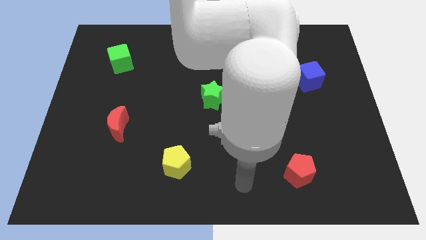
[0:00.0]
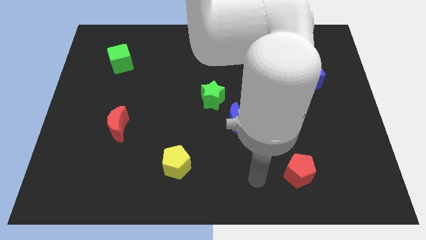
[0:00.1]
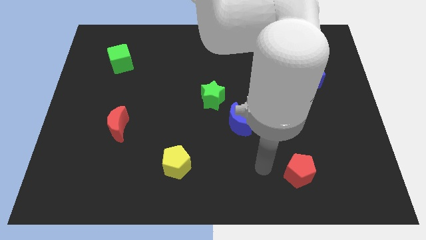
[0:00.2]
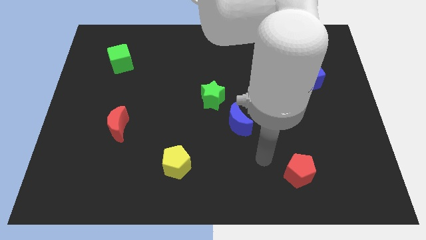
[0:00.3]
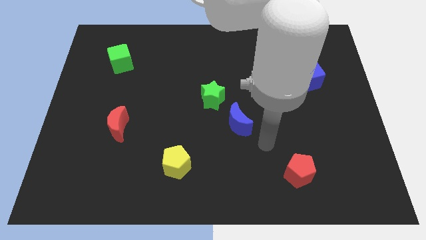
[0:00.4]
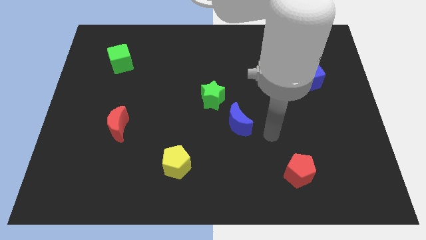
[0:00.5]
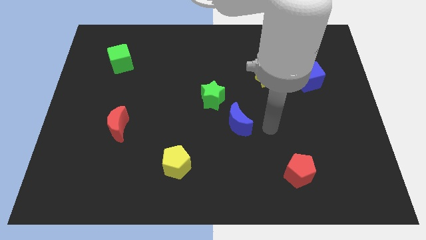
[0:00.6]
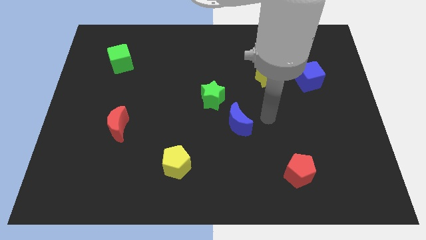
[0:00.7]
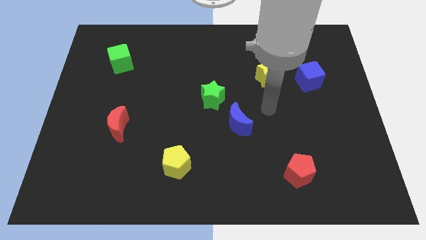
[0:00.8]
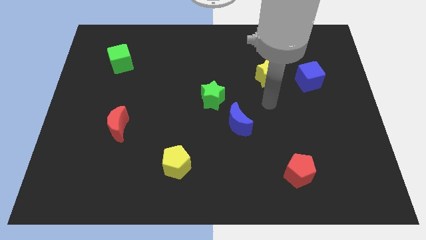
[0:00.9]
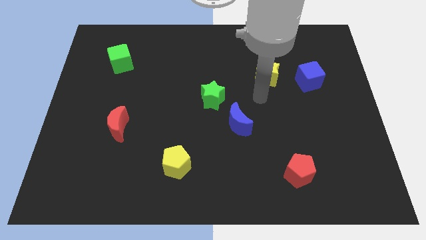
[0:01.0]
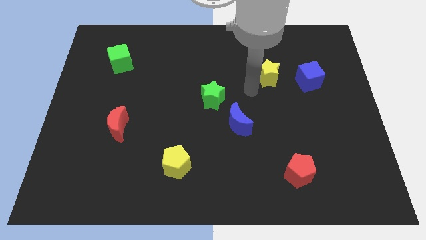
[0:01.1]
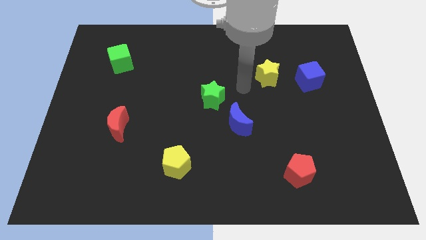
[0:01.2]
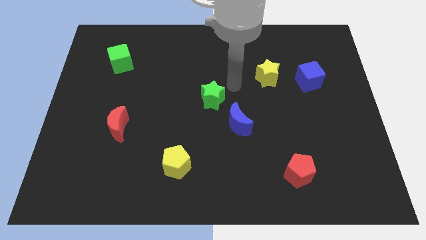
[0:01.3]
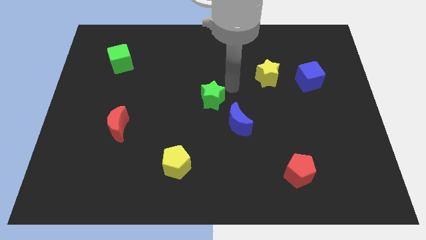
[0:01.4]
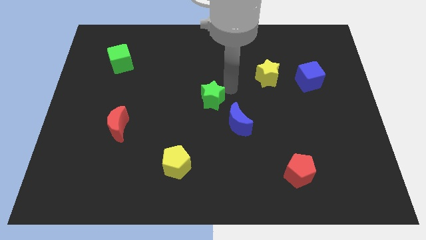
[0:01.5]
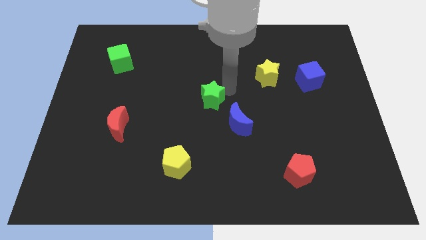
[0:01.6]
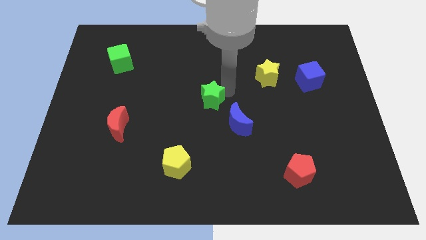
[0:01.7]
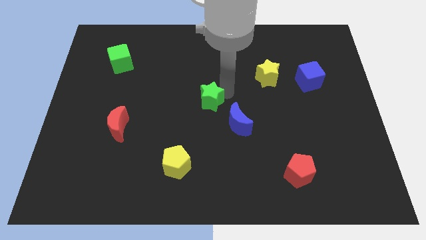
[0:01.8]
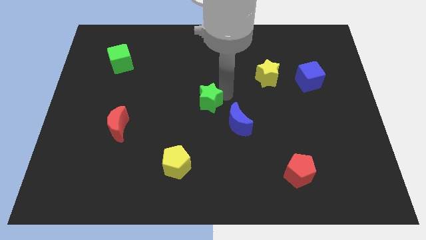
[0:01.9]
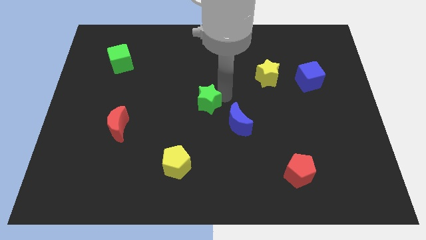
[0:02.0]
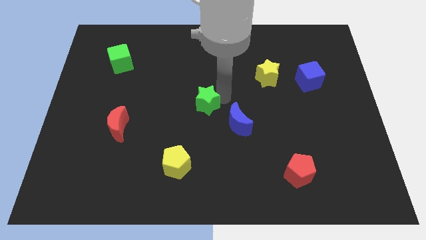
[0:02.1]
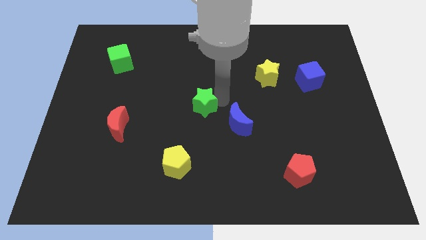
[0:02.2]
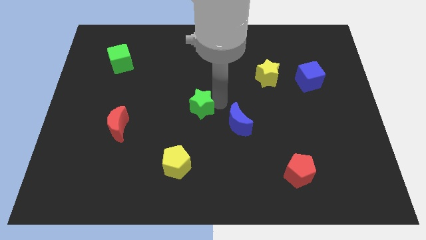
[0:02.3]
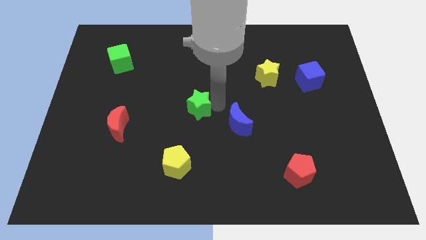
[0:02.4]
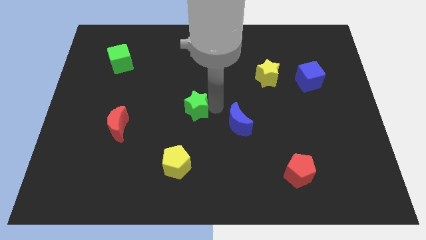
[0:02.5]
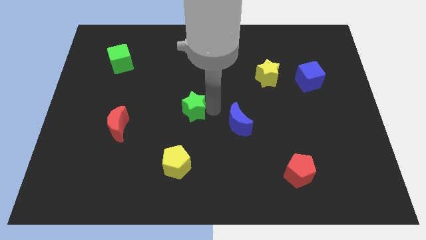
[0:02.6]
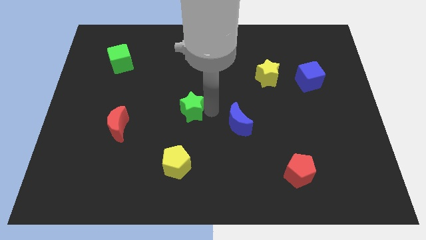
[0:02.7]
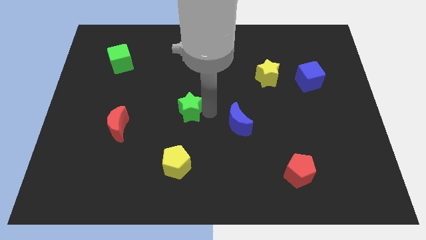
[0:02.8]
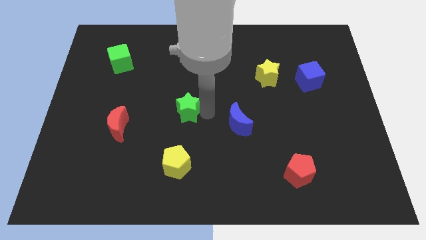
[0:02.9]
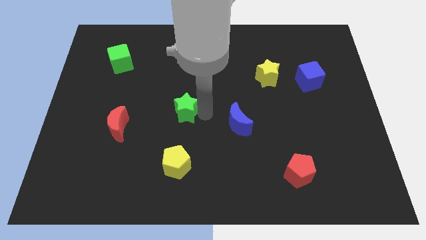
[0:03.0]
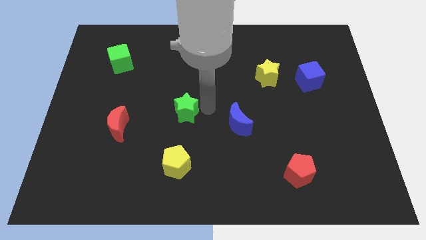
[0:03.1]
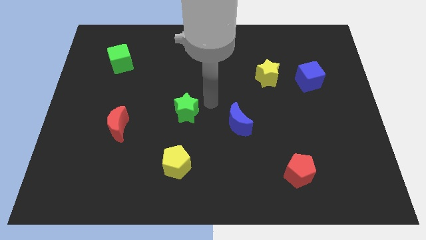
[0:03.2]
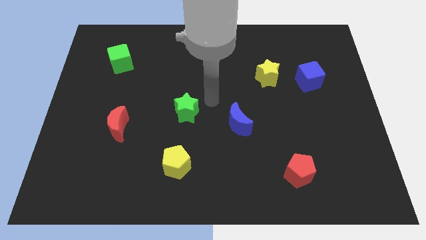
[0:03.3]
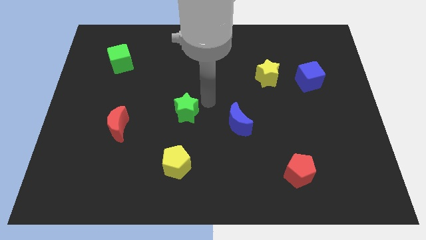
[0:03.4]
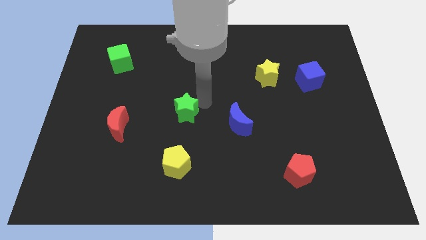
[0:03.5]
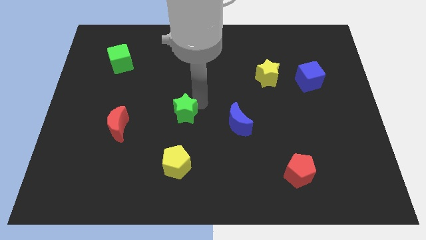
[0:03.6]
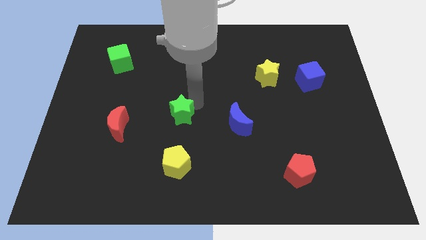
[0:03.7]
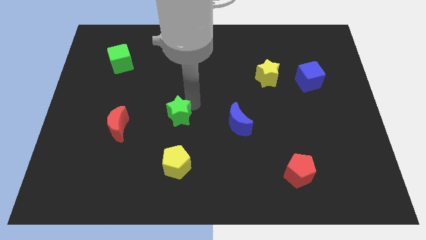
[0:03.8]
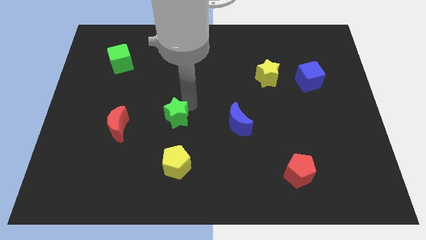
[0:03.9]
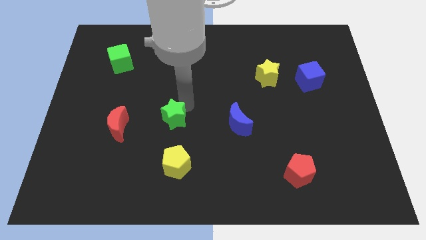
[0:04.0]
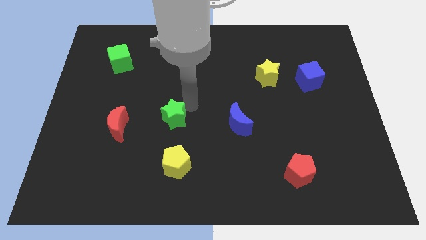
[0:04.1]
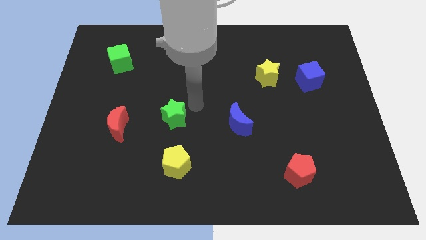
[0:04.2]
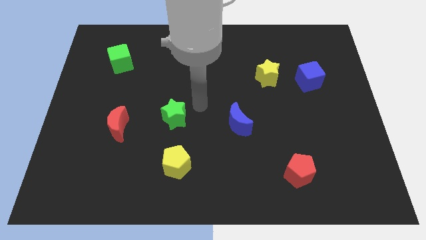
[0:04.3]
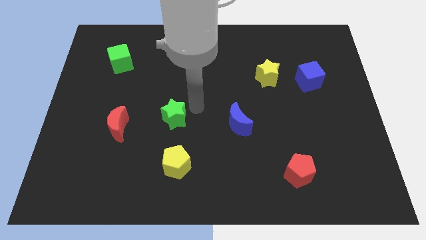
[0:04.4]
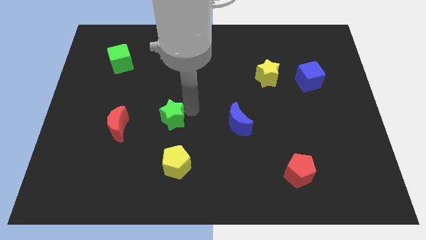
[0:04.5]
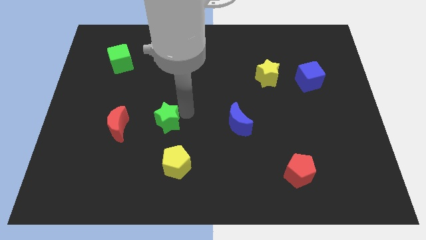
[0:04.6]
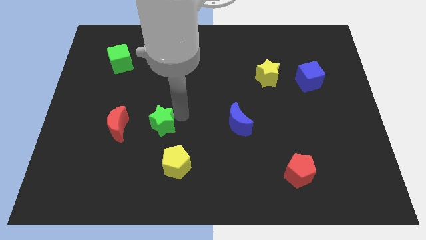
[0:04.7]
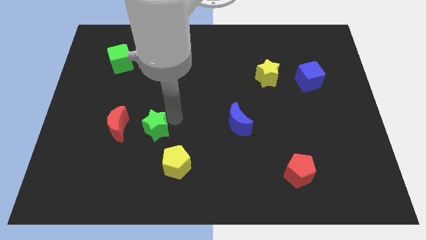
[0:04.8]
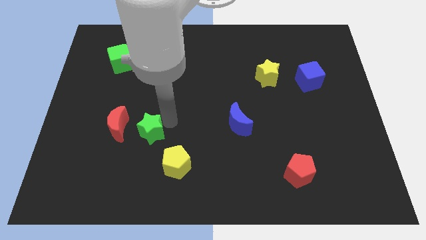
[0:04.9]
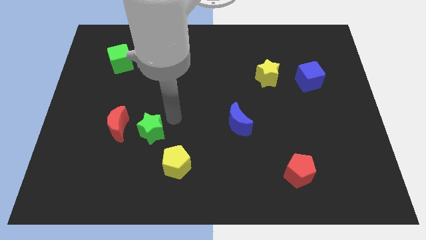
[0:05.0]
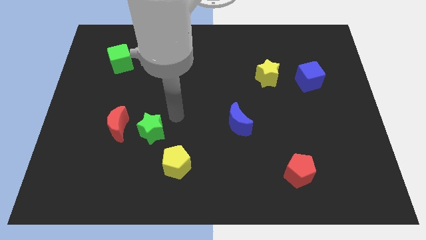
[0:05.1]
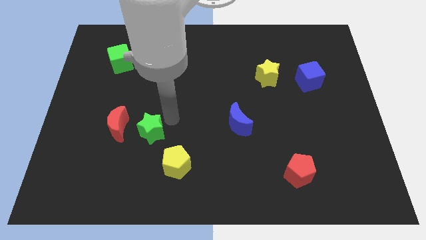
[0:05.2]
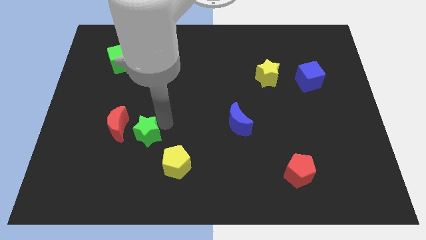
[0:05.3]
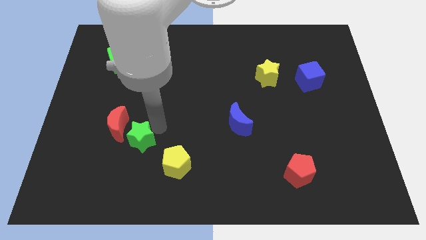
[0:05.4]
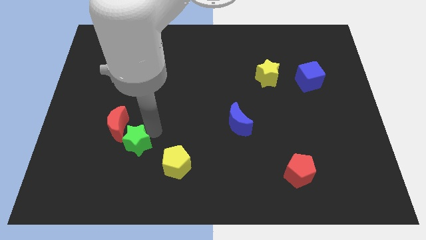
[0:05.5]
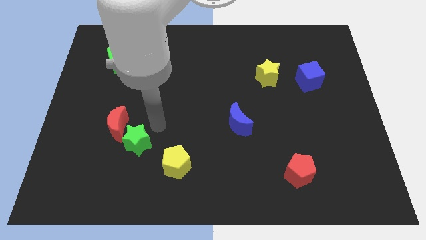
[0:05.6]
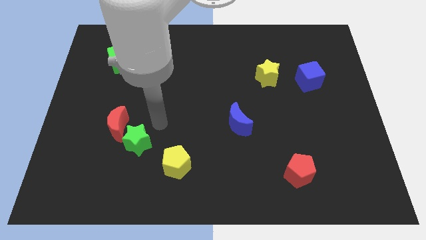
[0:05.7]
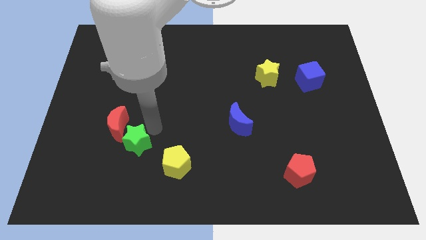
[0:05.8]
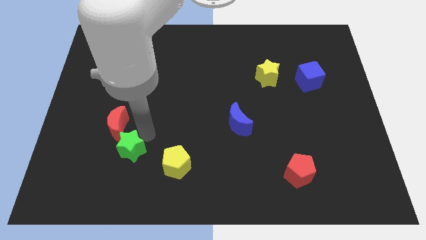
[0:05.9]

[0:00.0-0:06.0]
put the green star below the red moon
